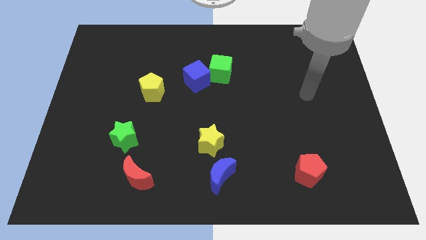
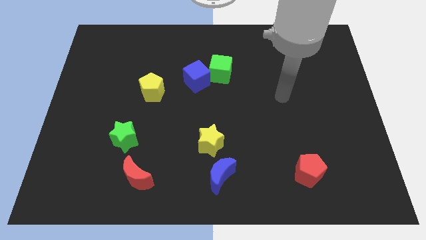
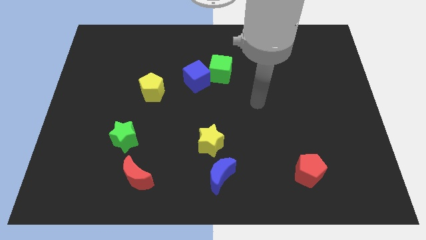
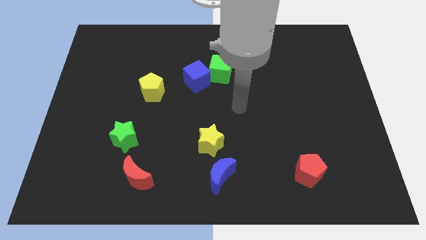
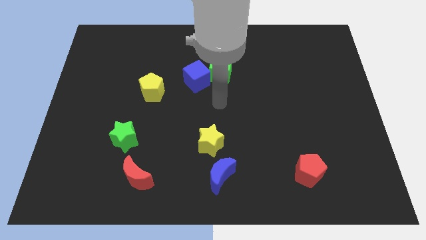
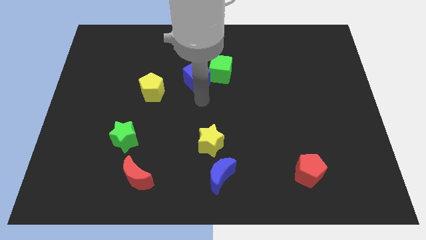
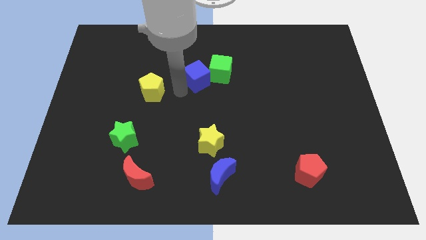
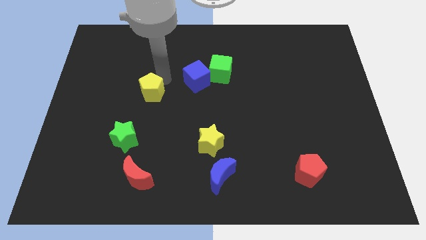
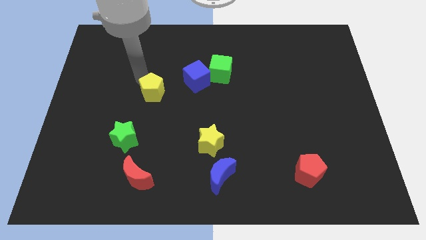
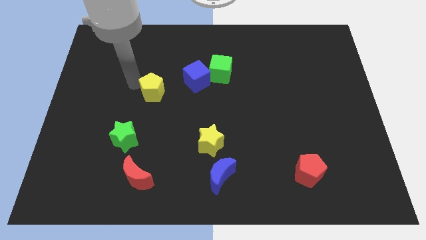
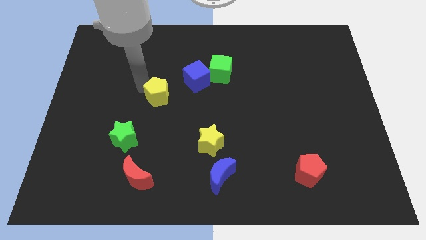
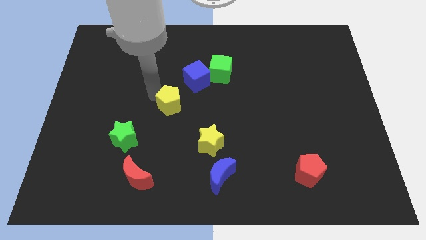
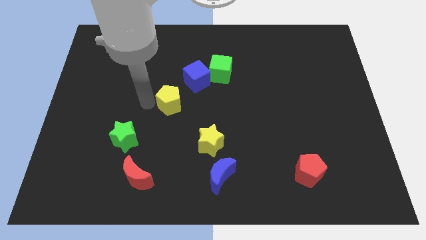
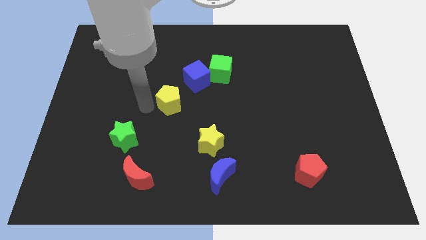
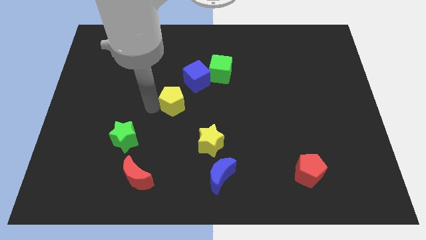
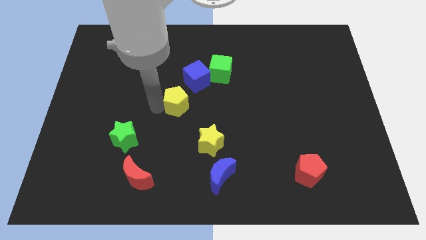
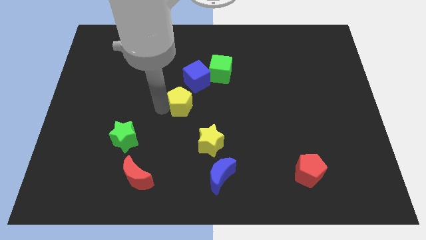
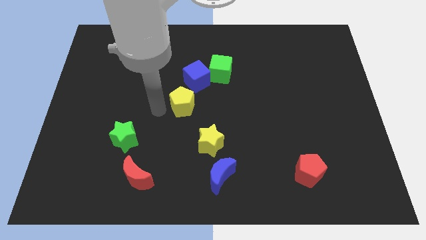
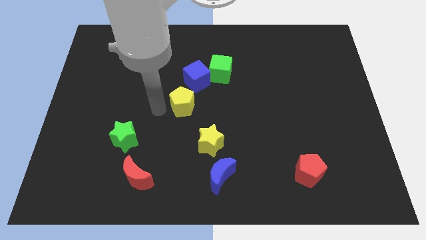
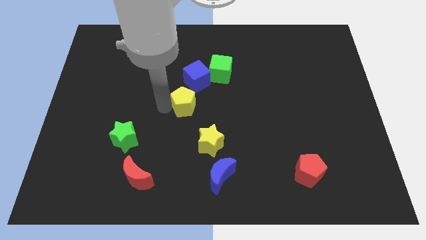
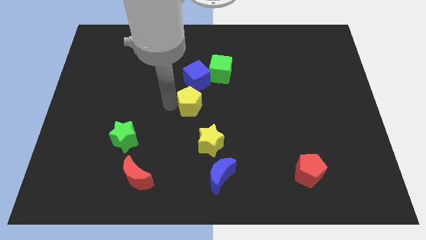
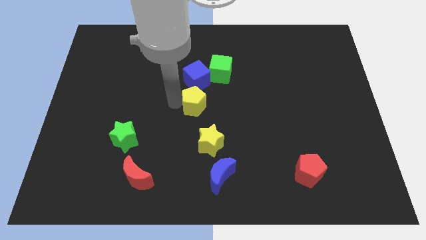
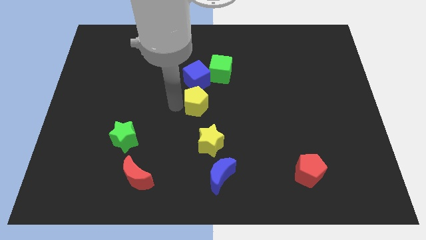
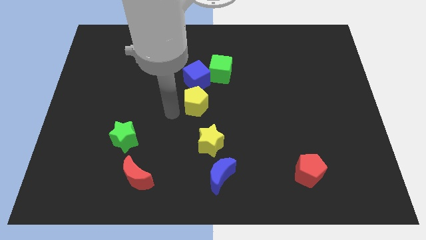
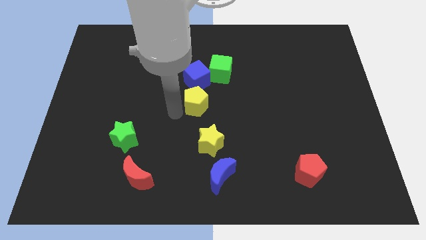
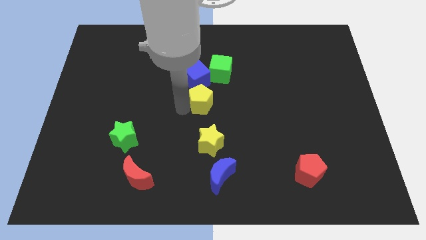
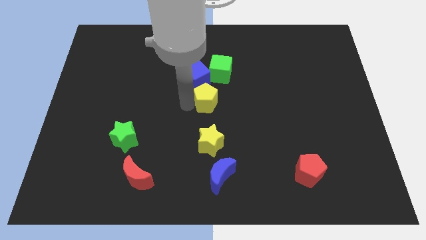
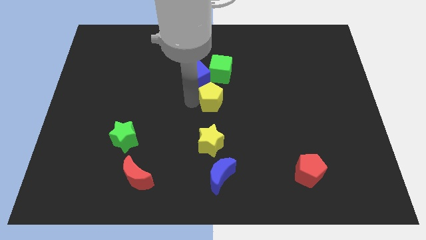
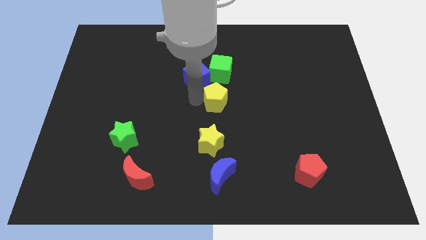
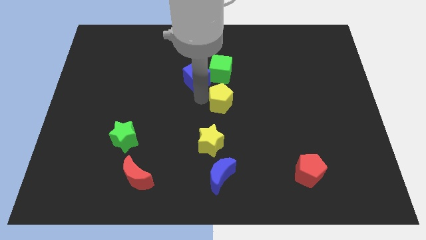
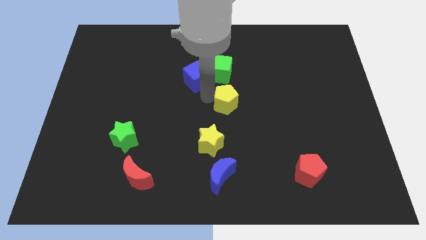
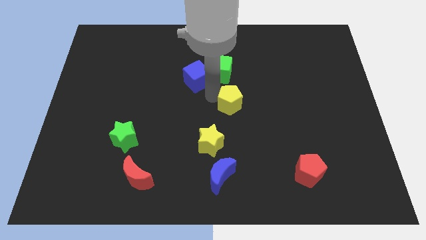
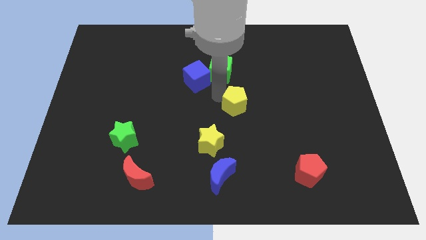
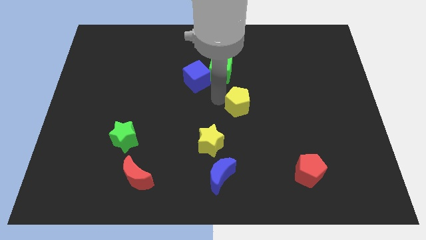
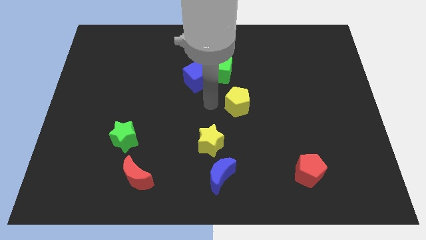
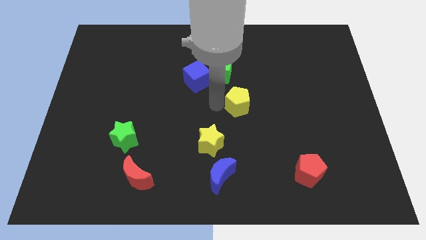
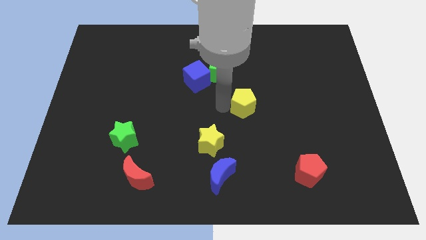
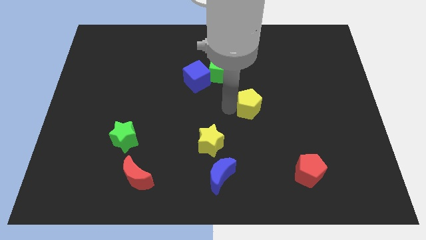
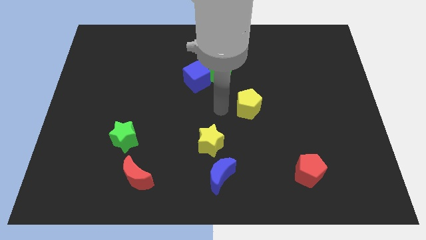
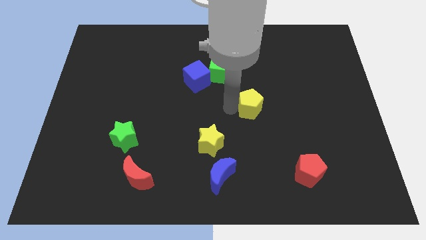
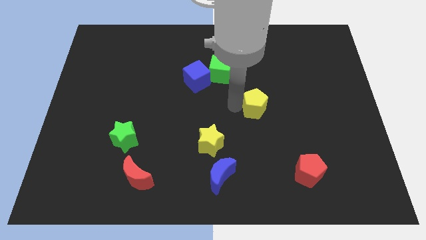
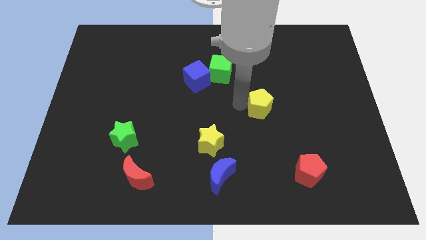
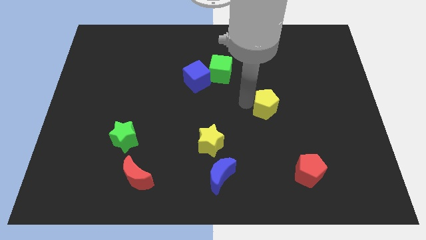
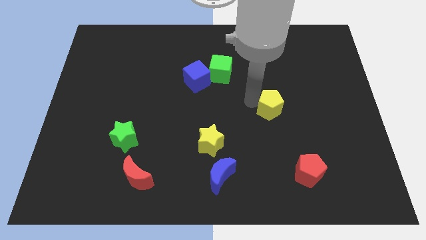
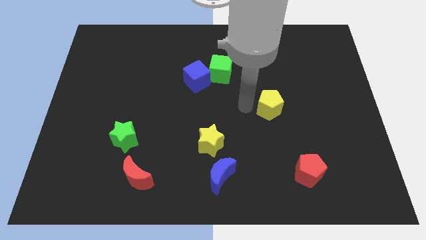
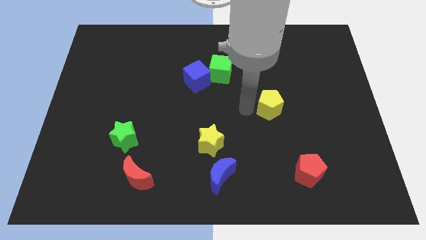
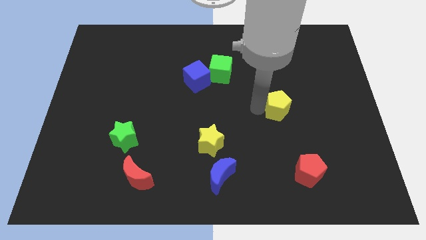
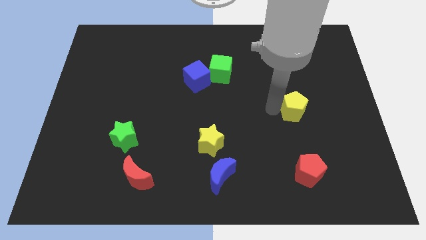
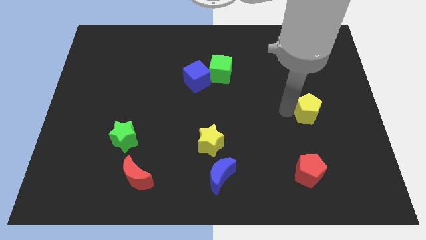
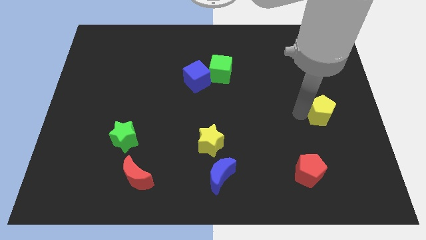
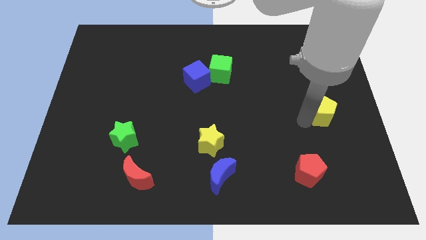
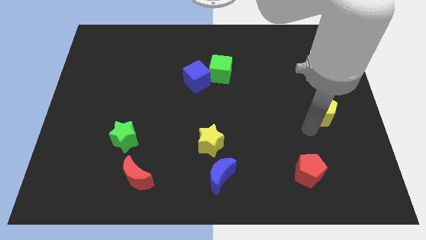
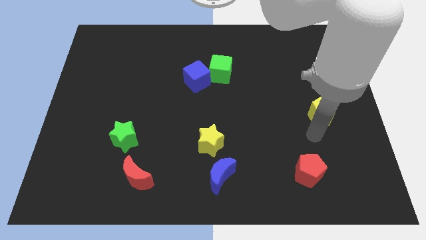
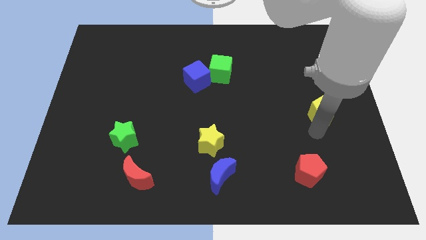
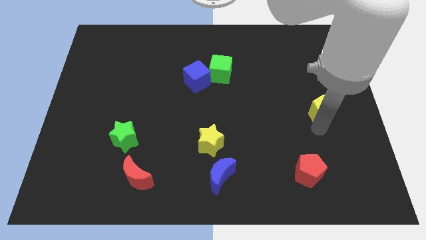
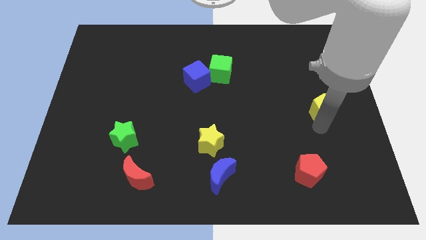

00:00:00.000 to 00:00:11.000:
slide the yellow pentagon to the right side

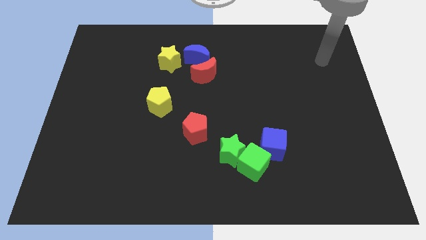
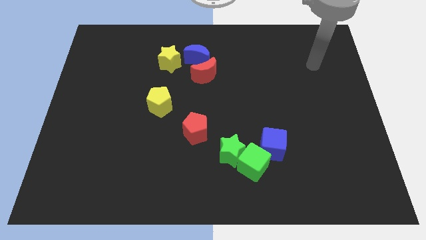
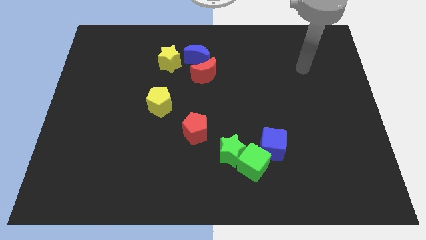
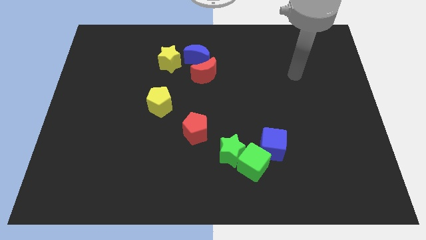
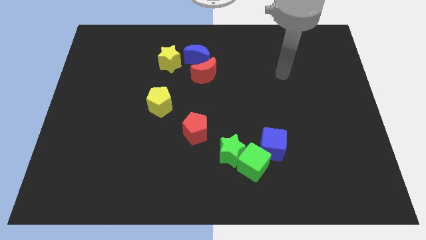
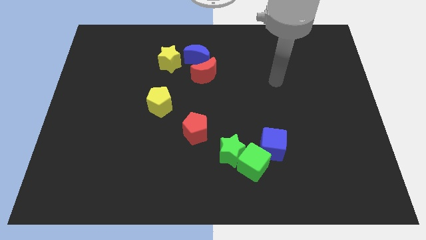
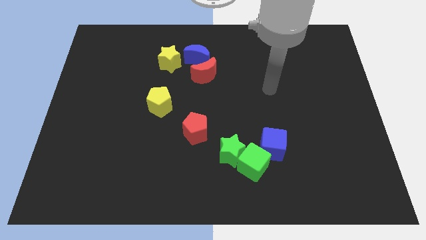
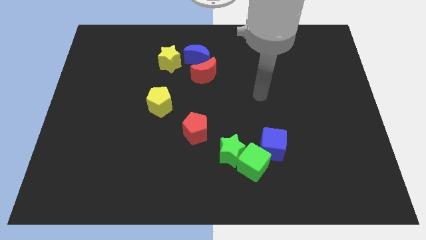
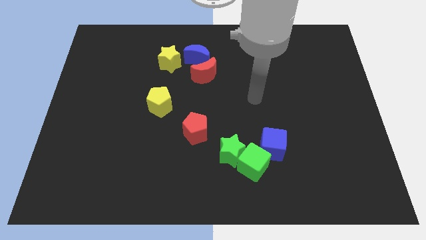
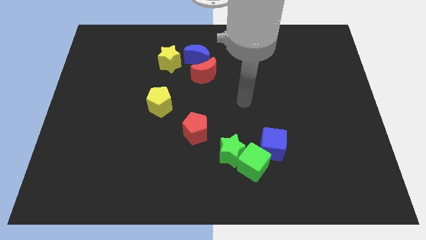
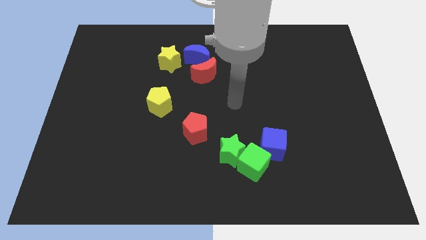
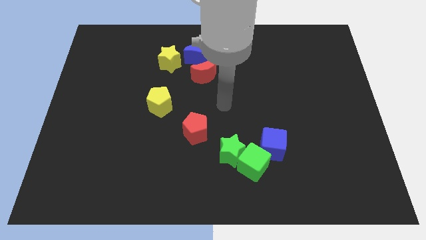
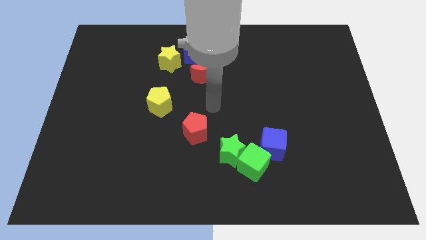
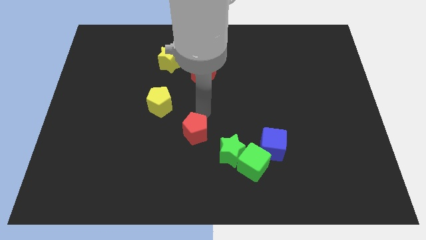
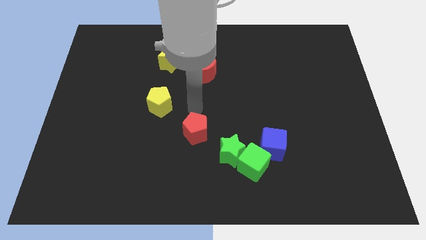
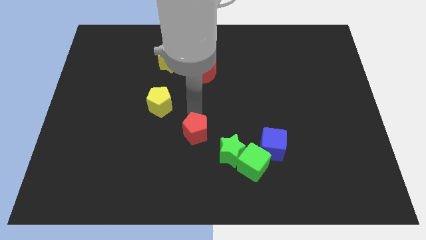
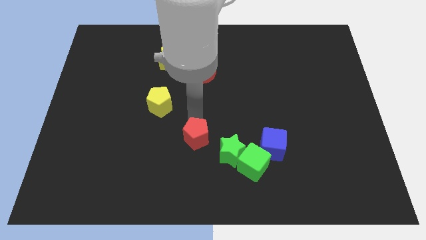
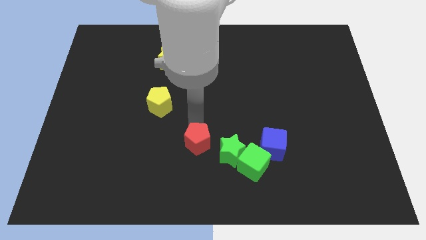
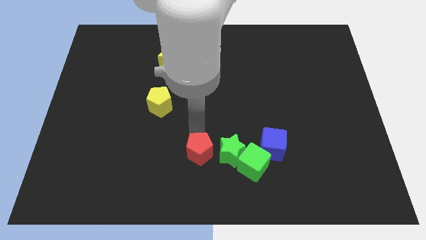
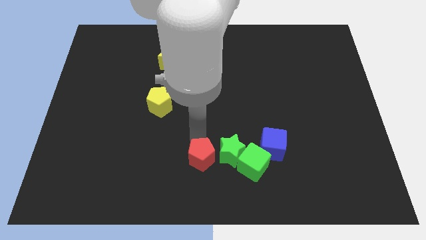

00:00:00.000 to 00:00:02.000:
put the red pentagon to the bottom side
